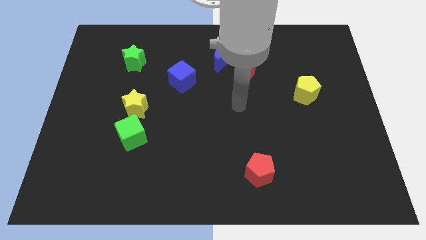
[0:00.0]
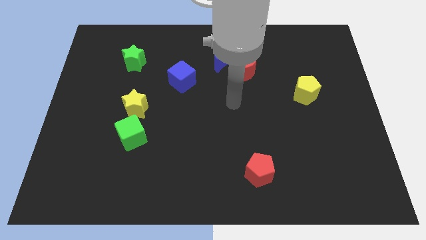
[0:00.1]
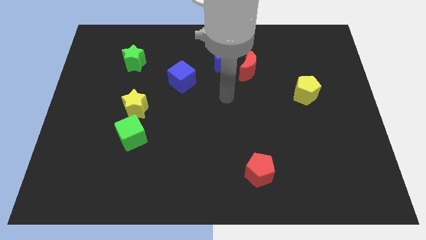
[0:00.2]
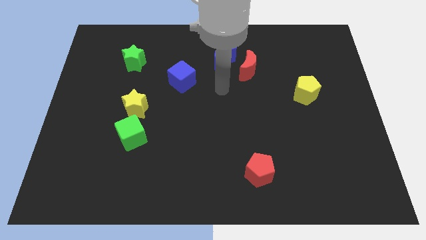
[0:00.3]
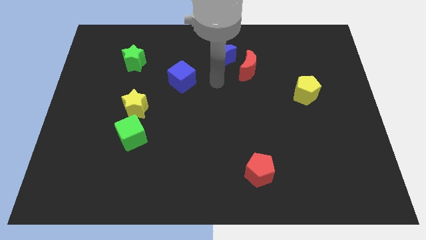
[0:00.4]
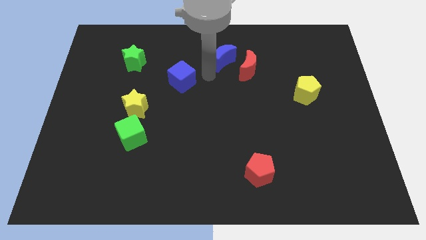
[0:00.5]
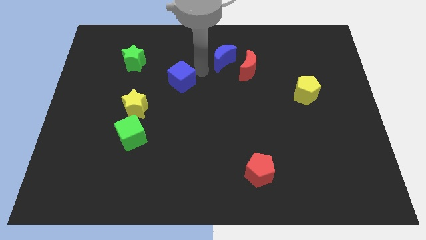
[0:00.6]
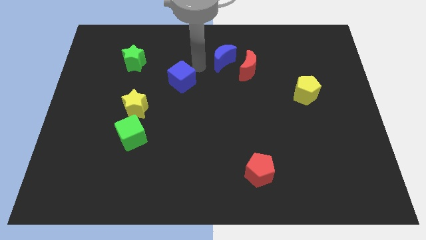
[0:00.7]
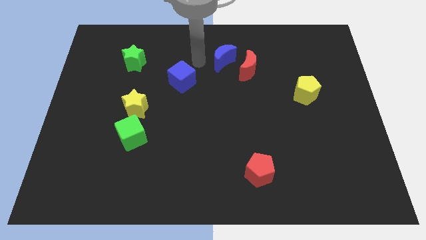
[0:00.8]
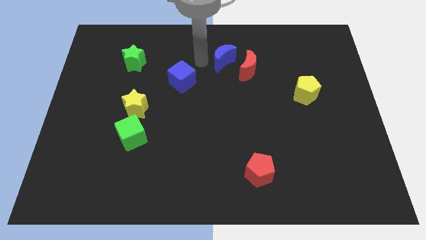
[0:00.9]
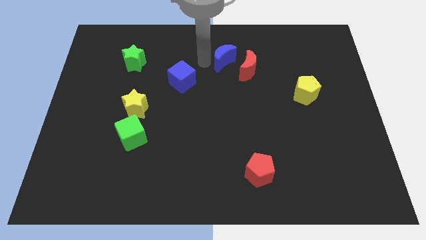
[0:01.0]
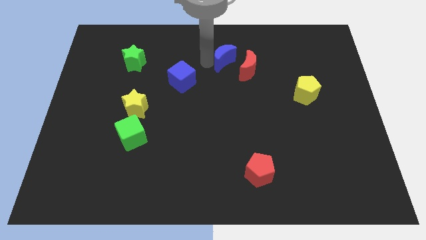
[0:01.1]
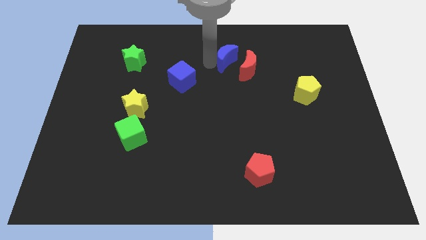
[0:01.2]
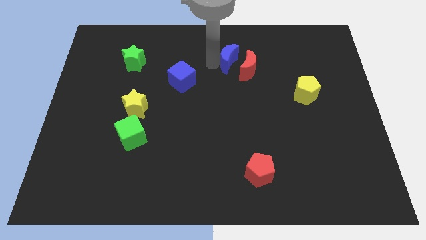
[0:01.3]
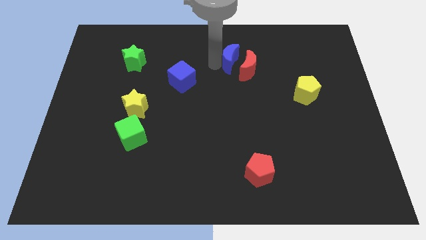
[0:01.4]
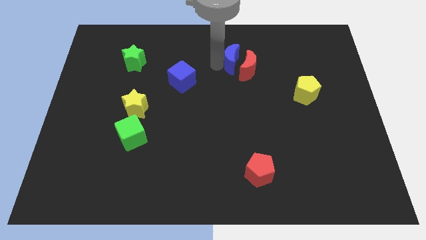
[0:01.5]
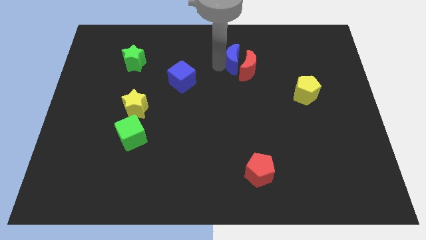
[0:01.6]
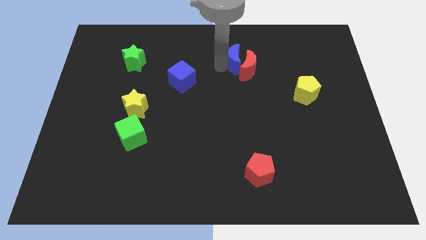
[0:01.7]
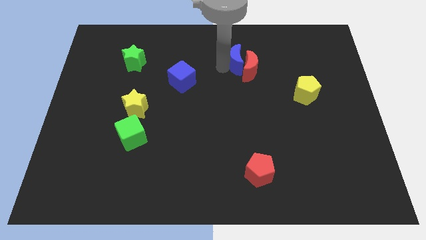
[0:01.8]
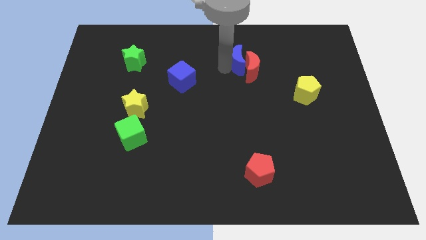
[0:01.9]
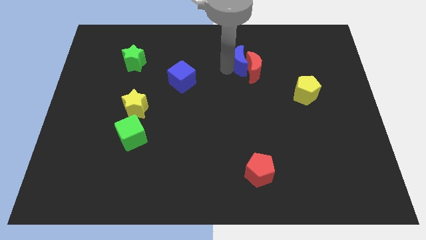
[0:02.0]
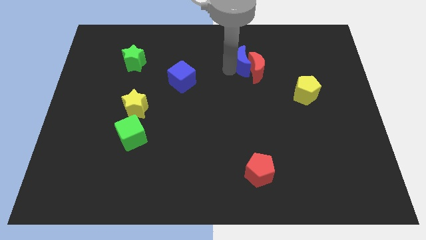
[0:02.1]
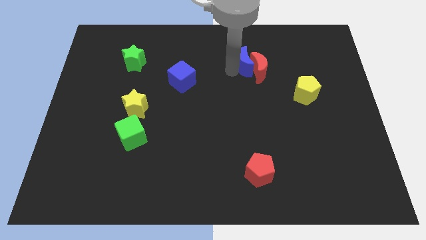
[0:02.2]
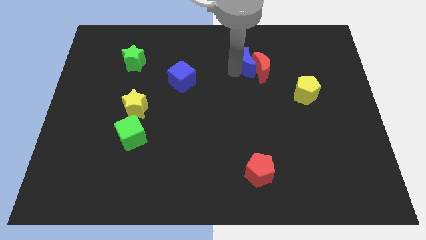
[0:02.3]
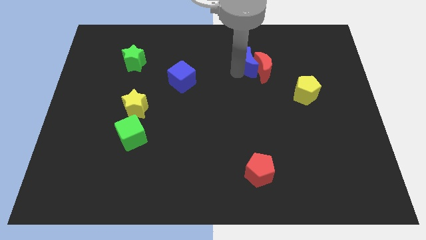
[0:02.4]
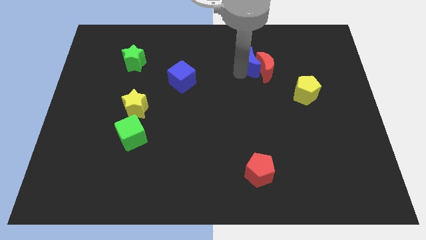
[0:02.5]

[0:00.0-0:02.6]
push the blue moon somewhat right

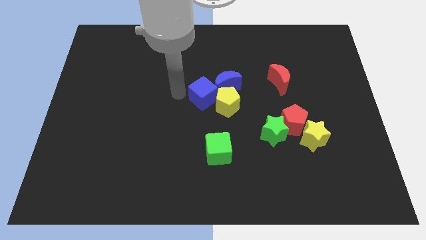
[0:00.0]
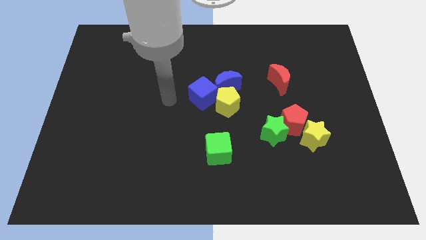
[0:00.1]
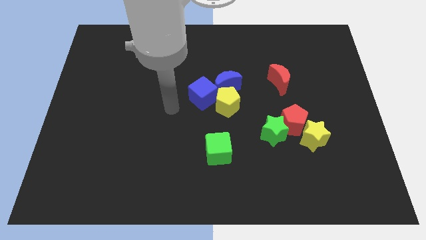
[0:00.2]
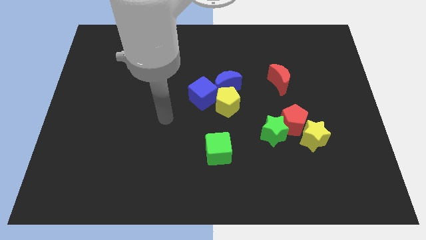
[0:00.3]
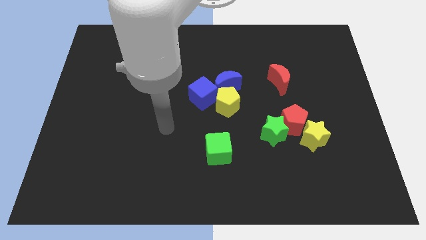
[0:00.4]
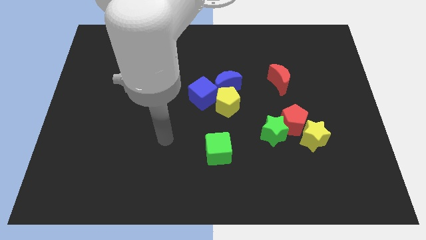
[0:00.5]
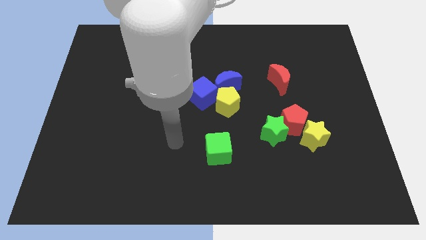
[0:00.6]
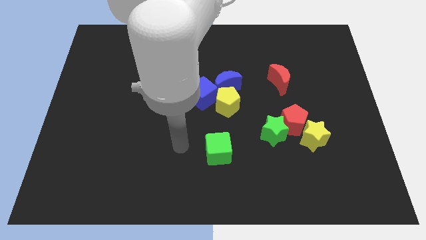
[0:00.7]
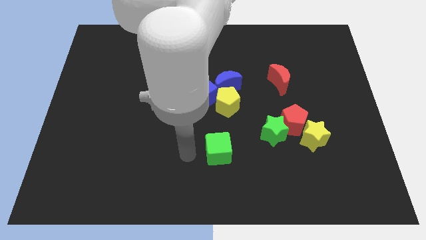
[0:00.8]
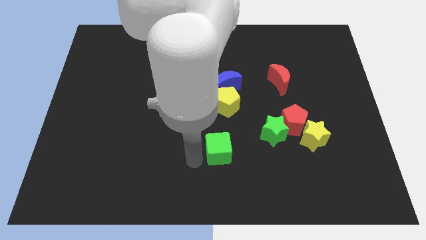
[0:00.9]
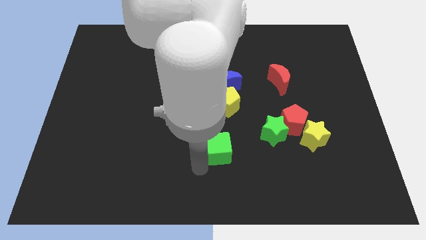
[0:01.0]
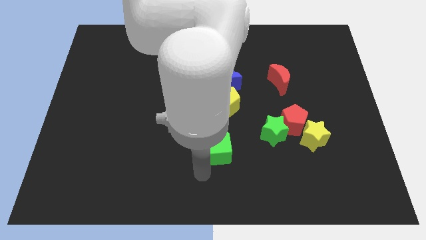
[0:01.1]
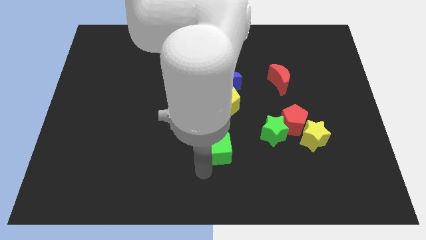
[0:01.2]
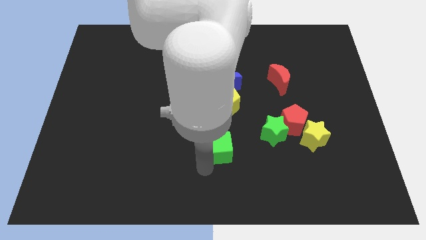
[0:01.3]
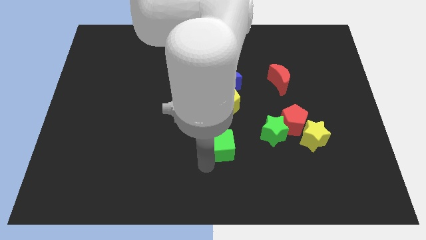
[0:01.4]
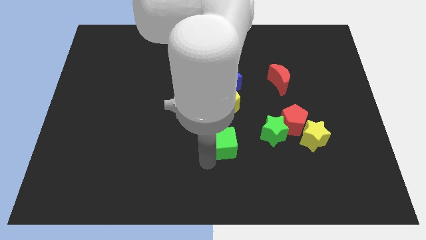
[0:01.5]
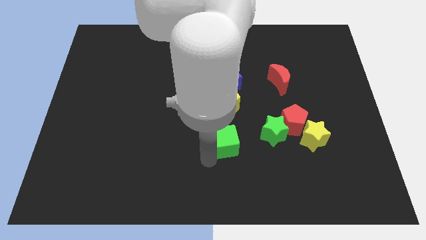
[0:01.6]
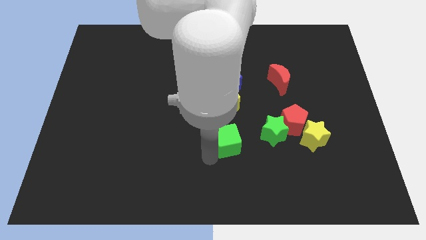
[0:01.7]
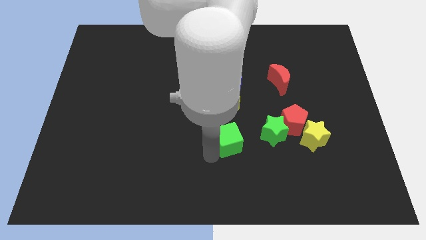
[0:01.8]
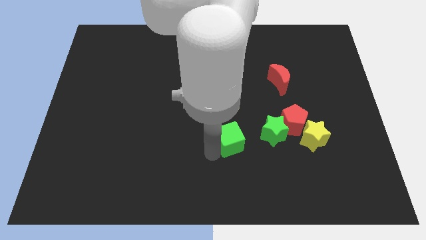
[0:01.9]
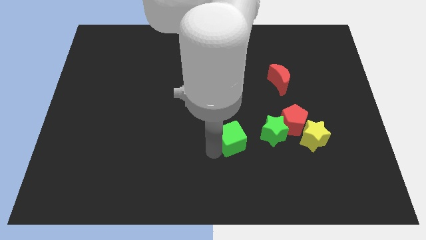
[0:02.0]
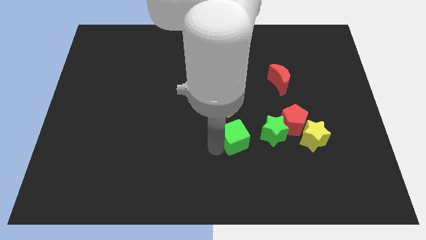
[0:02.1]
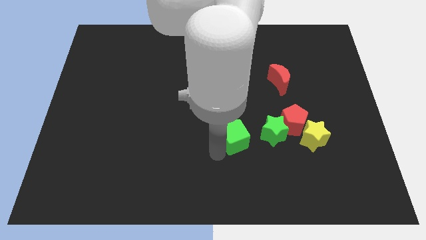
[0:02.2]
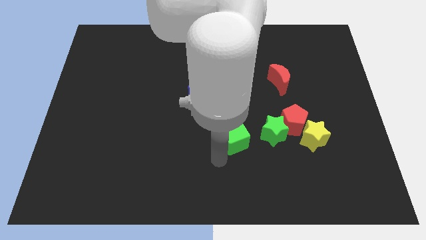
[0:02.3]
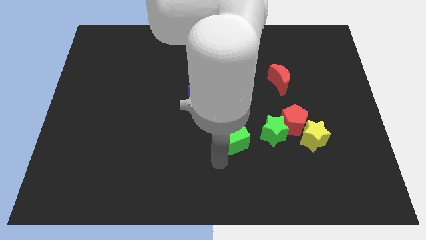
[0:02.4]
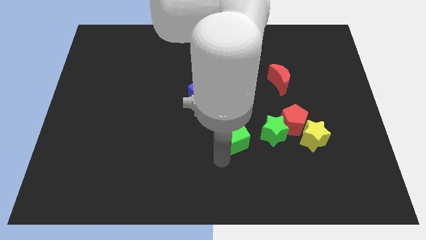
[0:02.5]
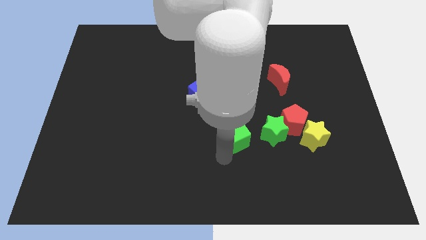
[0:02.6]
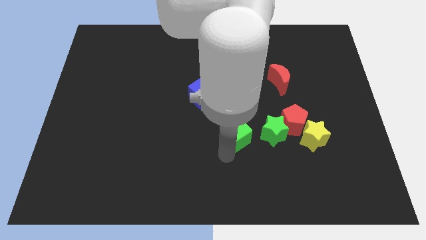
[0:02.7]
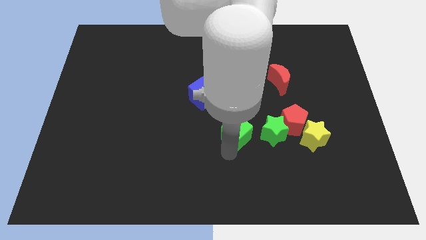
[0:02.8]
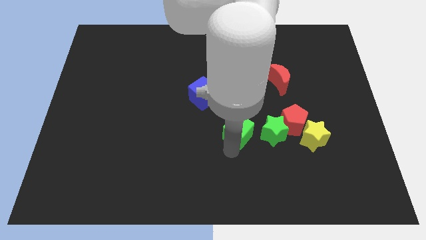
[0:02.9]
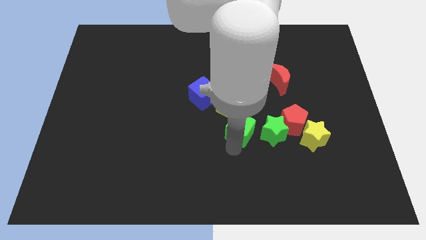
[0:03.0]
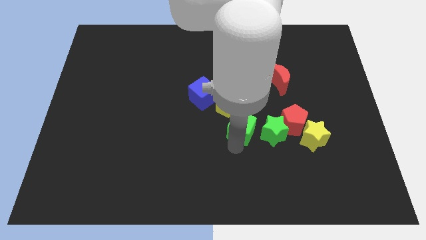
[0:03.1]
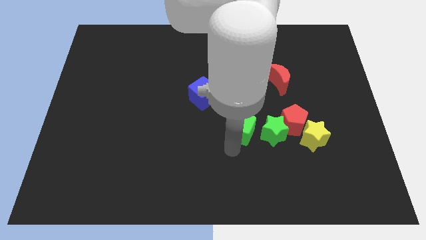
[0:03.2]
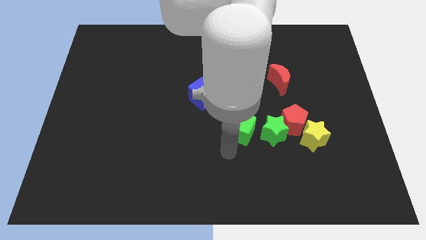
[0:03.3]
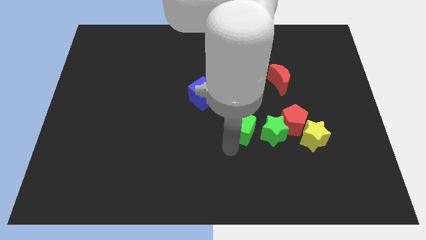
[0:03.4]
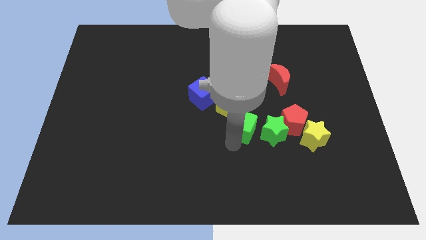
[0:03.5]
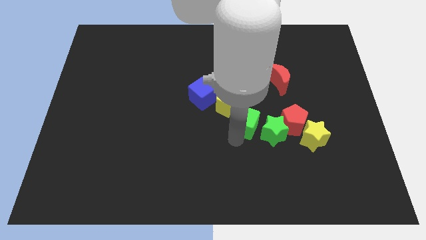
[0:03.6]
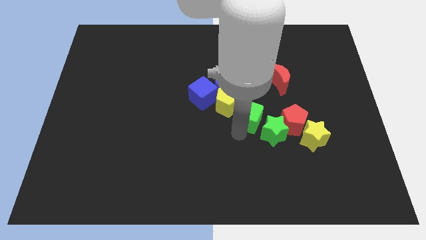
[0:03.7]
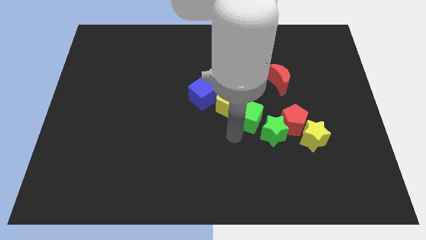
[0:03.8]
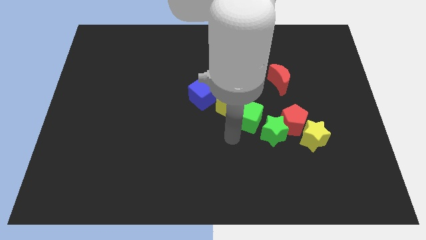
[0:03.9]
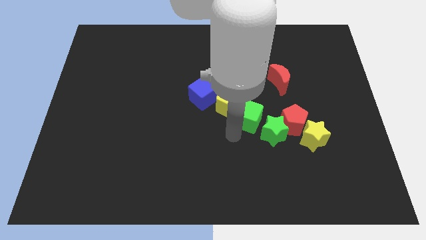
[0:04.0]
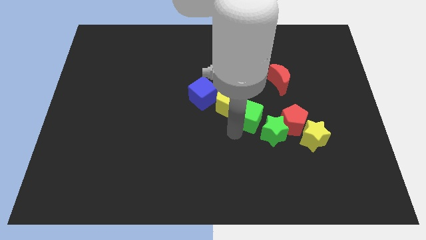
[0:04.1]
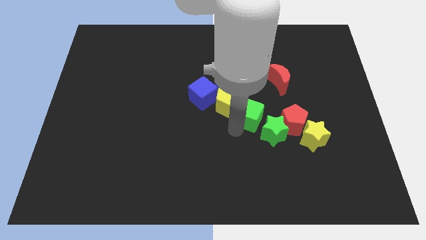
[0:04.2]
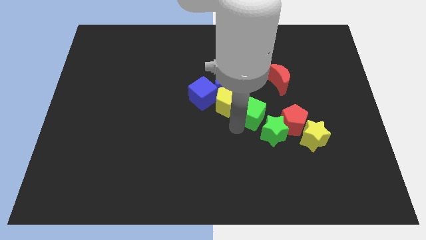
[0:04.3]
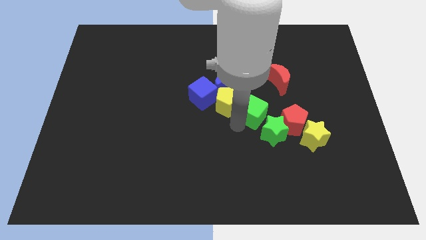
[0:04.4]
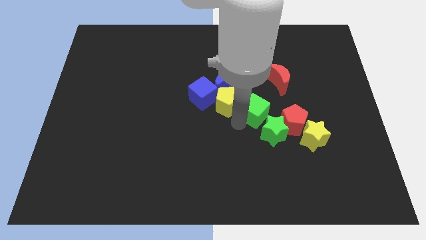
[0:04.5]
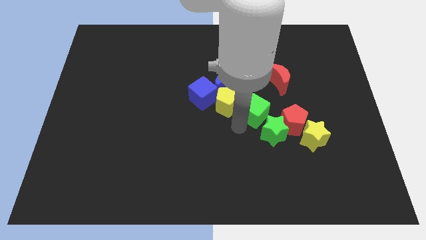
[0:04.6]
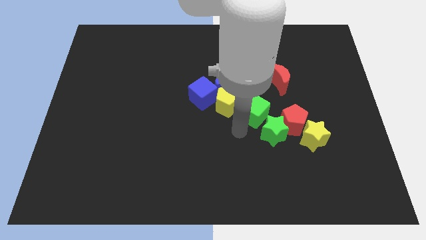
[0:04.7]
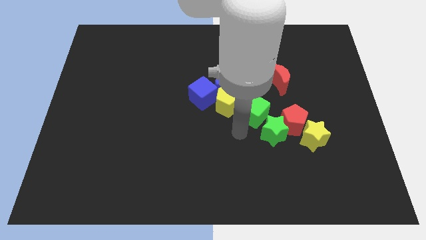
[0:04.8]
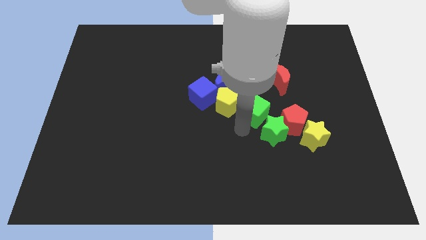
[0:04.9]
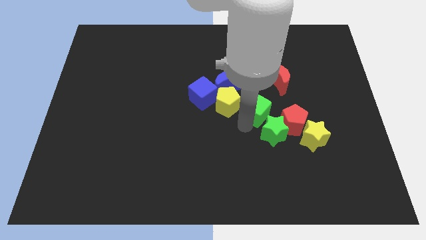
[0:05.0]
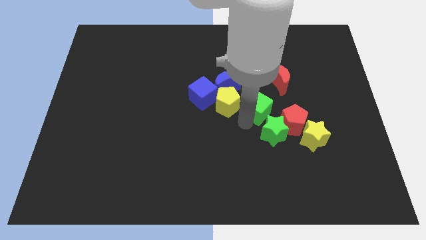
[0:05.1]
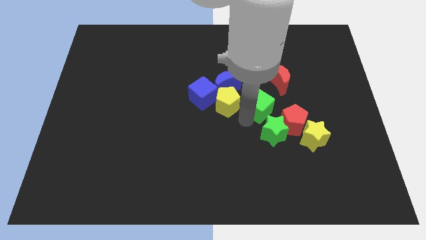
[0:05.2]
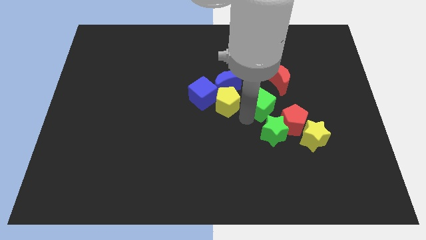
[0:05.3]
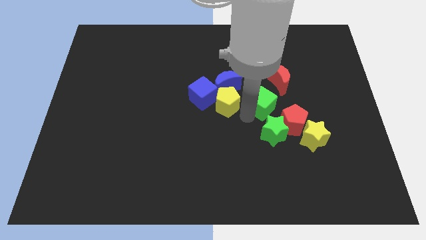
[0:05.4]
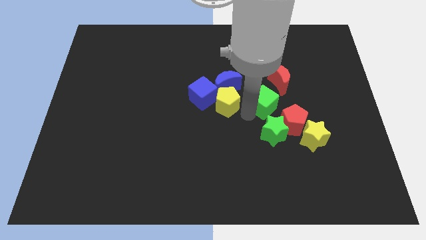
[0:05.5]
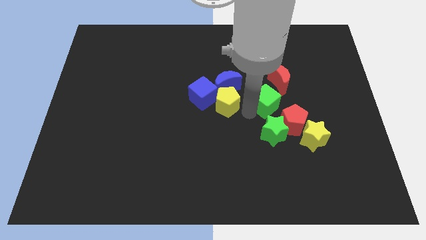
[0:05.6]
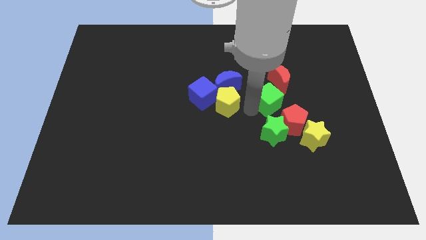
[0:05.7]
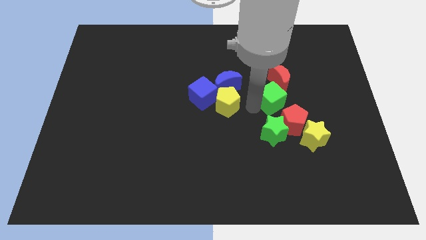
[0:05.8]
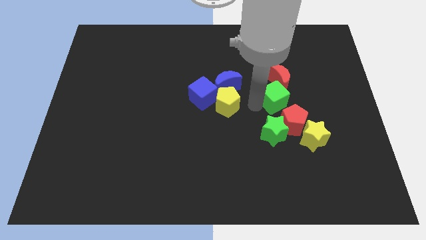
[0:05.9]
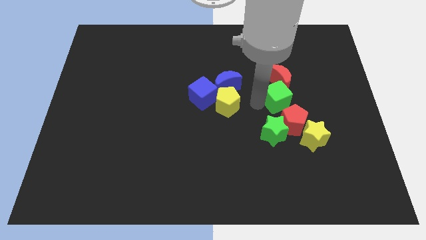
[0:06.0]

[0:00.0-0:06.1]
push the green cube up and right diagonally
